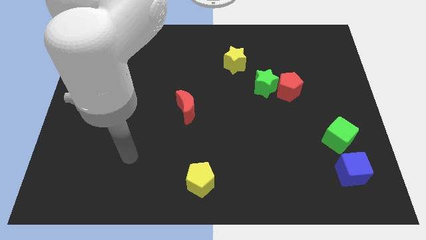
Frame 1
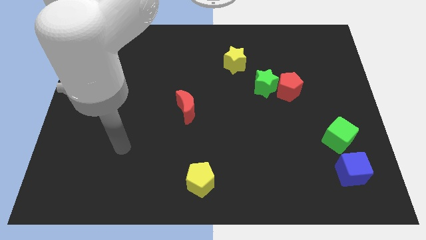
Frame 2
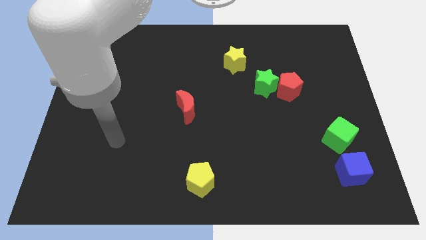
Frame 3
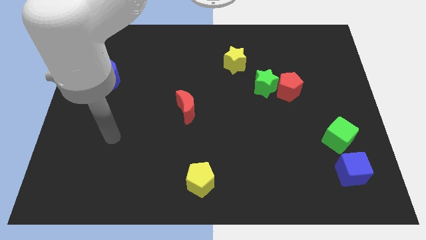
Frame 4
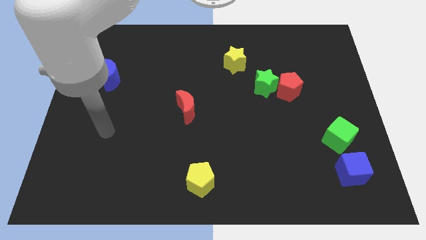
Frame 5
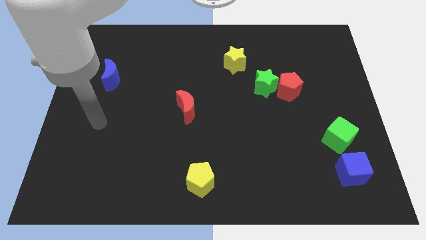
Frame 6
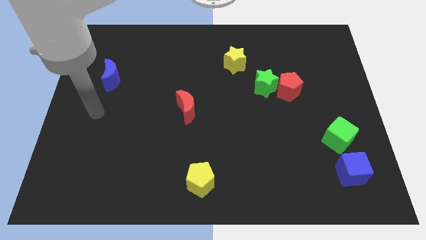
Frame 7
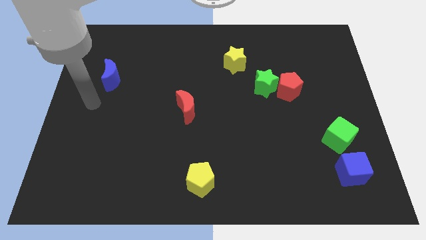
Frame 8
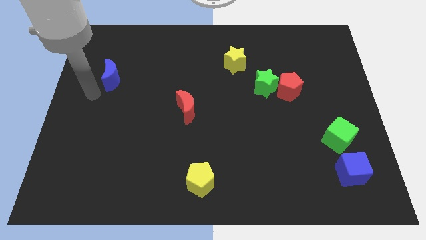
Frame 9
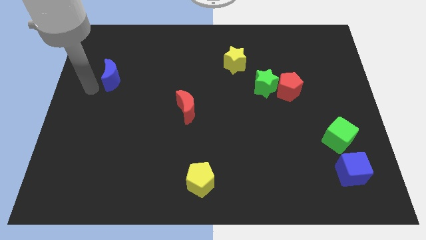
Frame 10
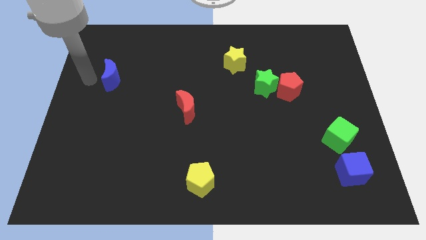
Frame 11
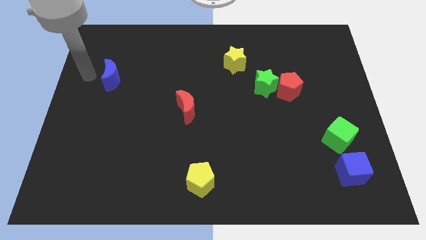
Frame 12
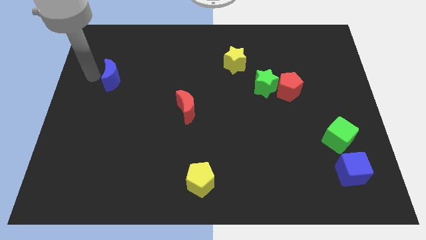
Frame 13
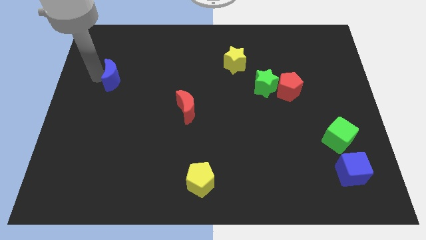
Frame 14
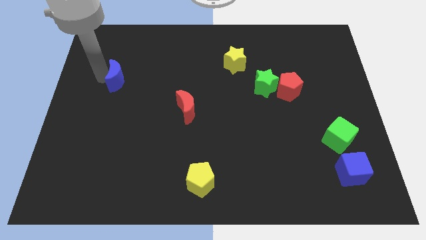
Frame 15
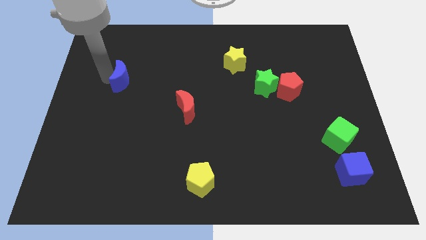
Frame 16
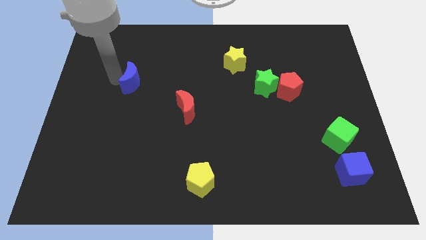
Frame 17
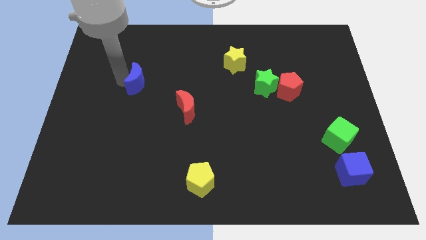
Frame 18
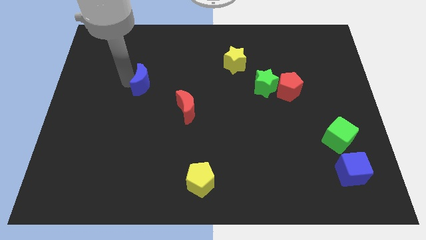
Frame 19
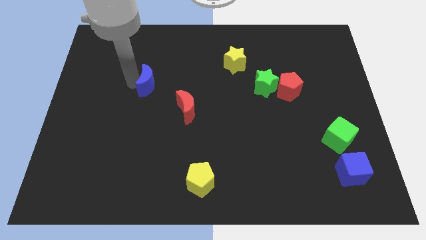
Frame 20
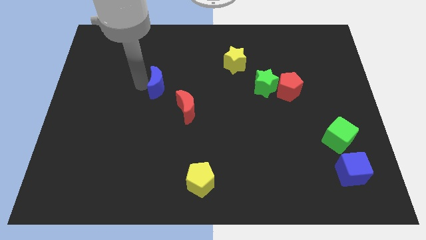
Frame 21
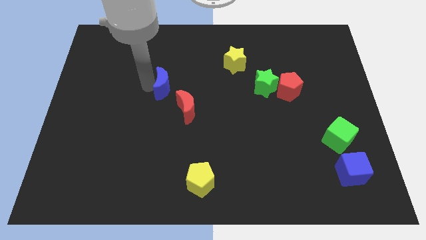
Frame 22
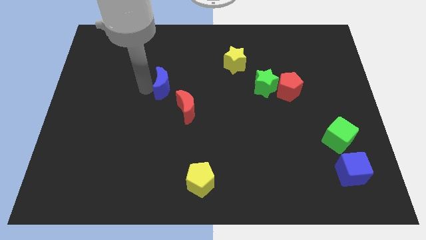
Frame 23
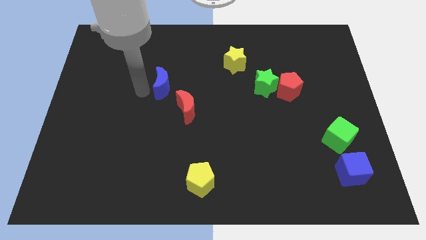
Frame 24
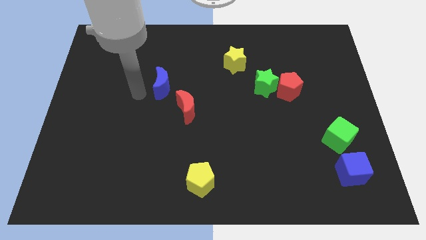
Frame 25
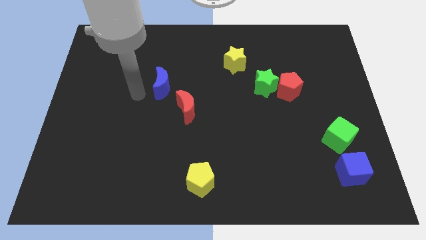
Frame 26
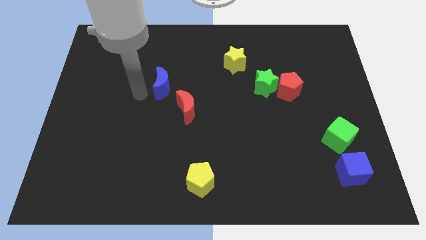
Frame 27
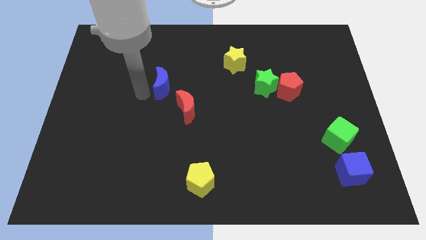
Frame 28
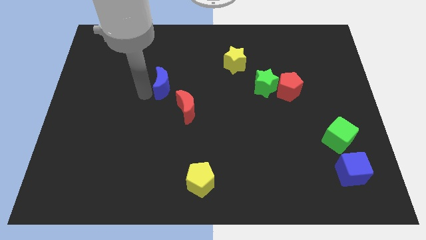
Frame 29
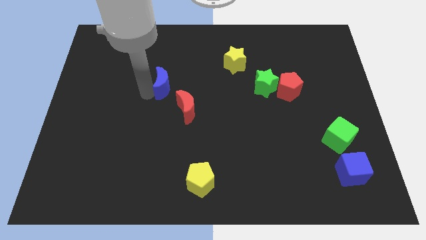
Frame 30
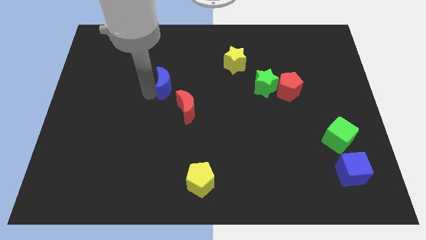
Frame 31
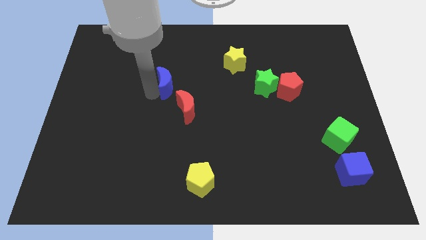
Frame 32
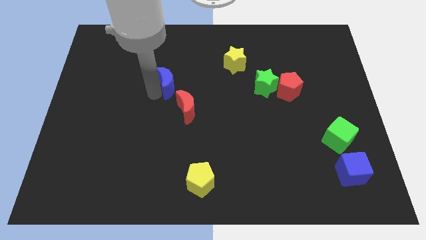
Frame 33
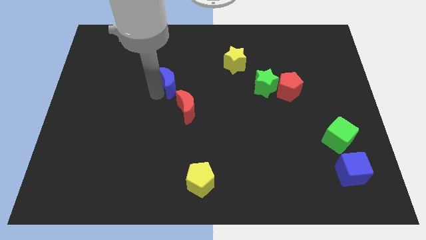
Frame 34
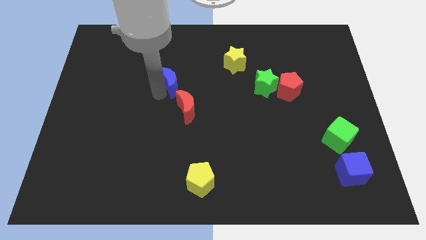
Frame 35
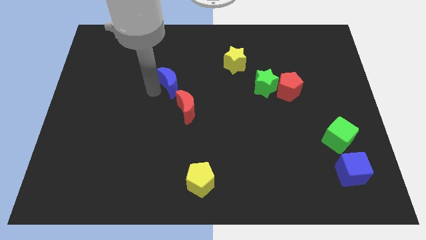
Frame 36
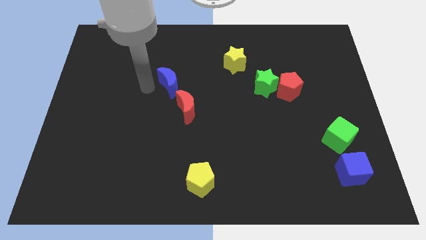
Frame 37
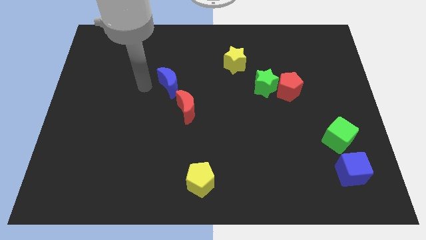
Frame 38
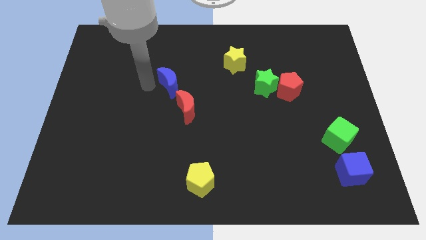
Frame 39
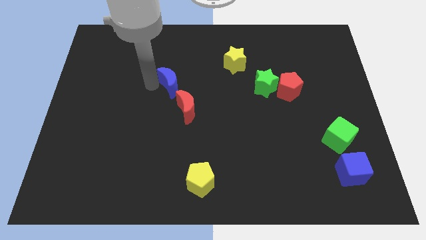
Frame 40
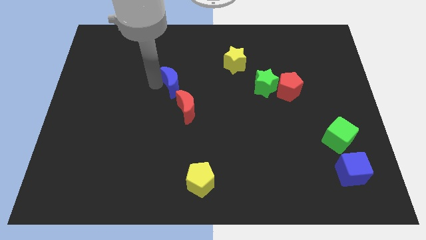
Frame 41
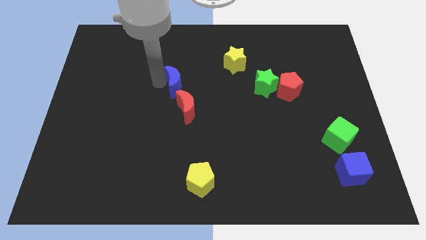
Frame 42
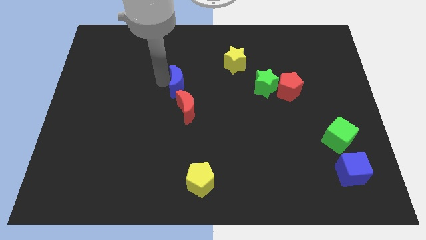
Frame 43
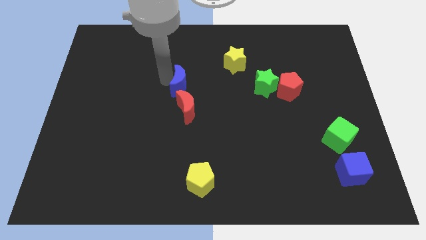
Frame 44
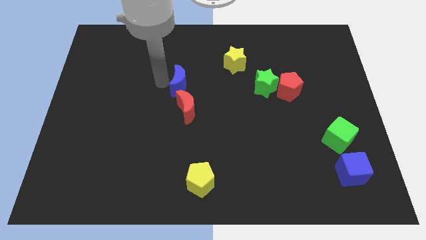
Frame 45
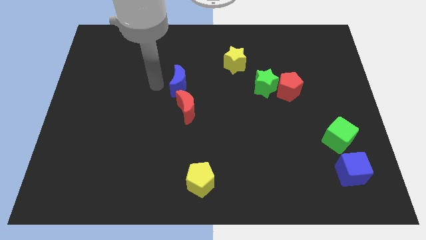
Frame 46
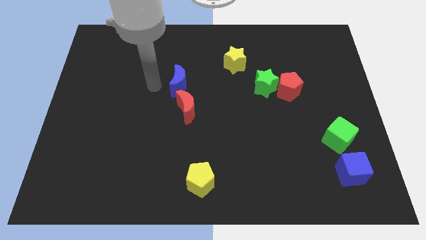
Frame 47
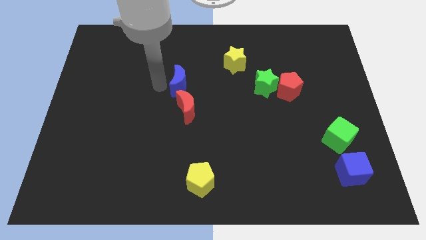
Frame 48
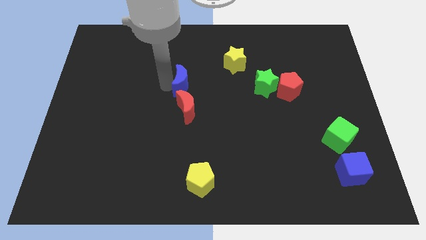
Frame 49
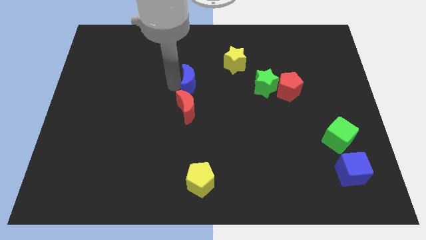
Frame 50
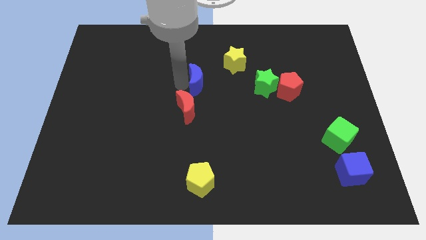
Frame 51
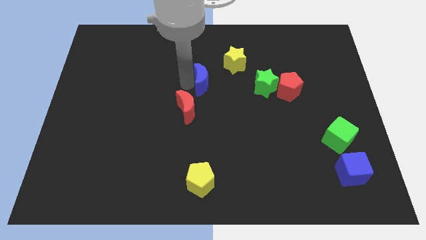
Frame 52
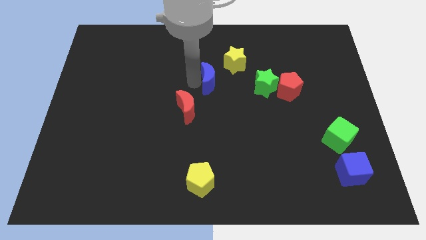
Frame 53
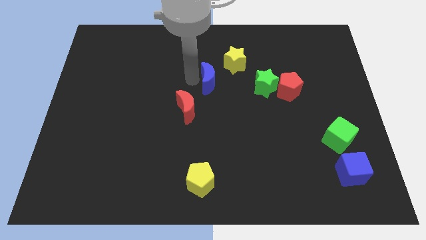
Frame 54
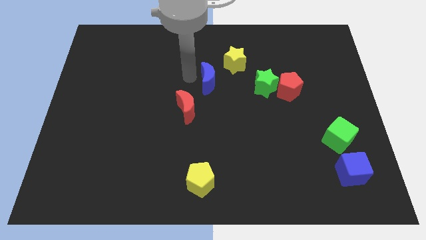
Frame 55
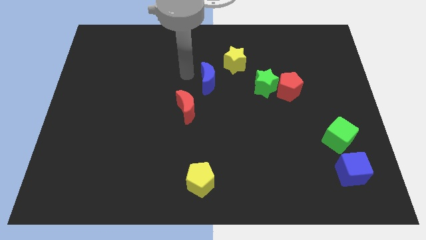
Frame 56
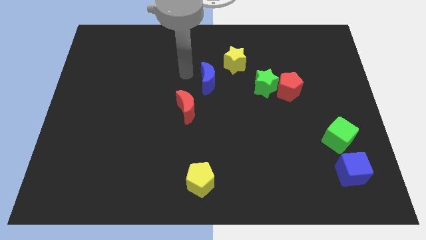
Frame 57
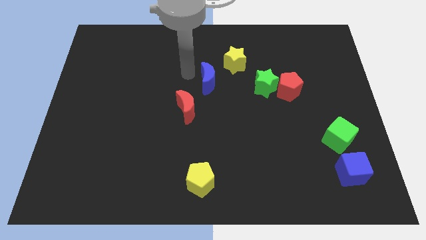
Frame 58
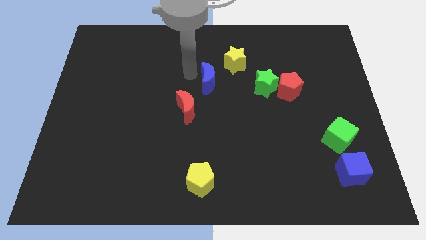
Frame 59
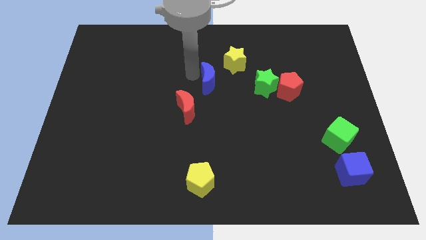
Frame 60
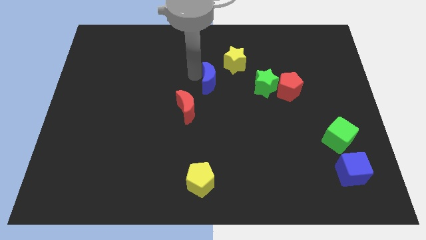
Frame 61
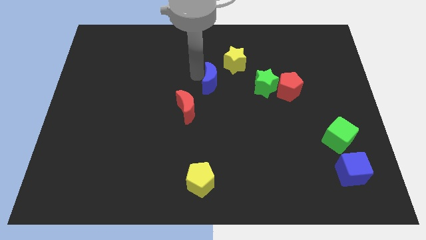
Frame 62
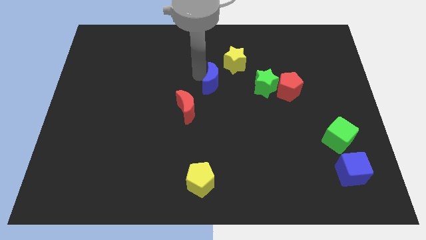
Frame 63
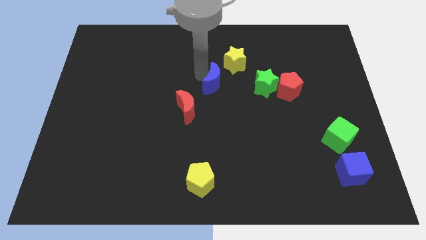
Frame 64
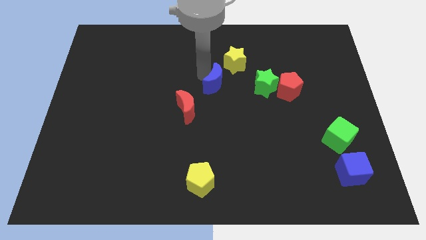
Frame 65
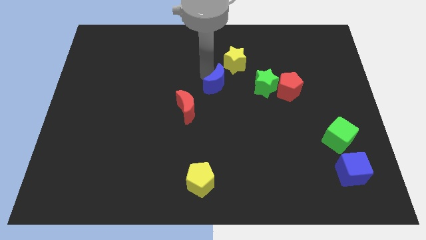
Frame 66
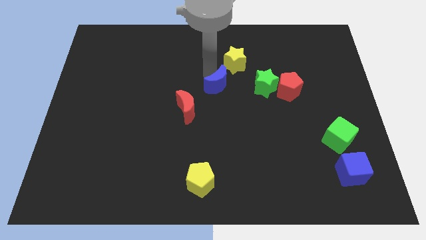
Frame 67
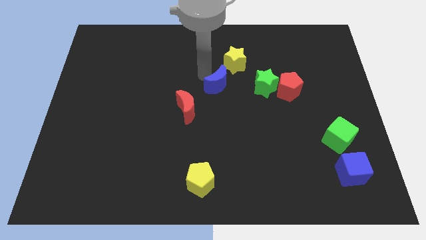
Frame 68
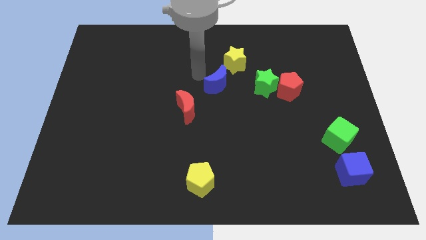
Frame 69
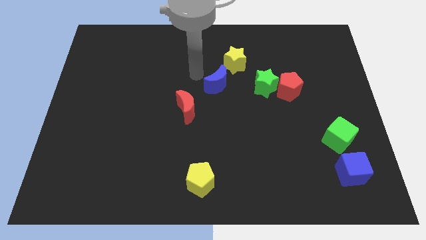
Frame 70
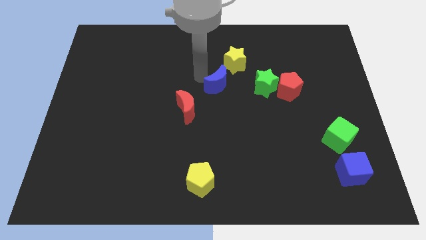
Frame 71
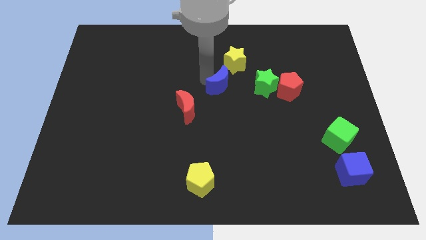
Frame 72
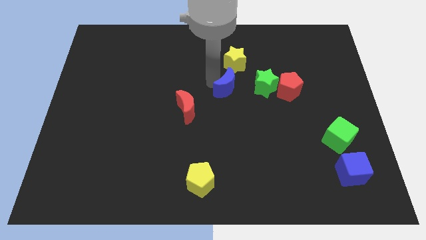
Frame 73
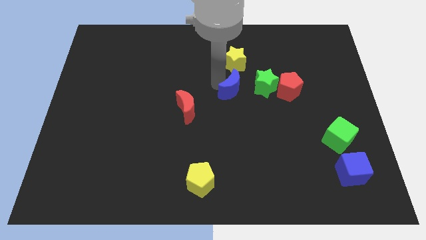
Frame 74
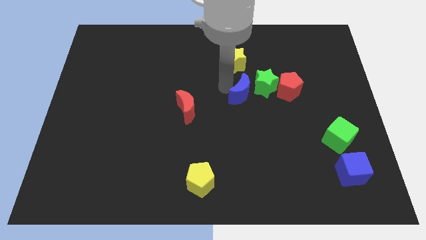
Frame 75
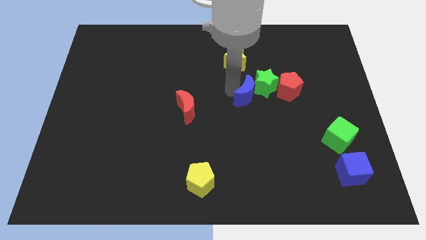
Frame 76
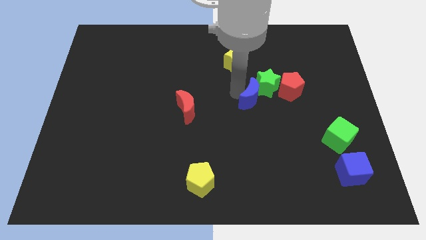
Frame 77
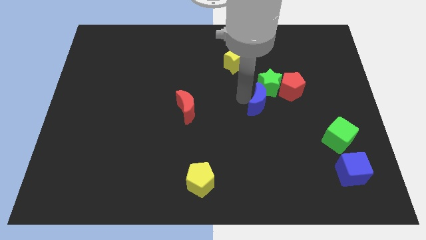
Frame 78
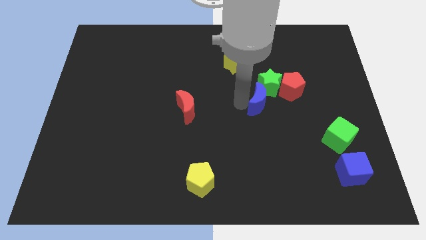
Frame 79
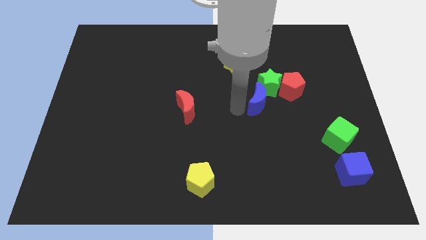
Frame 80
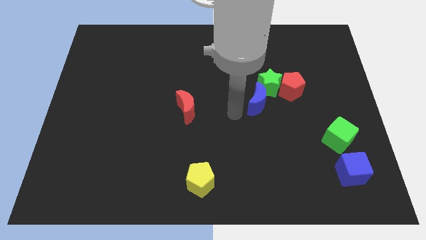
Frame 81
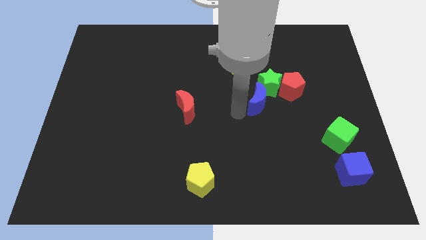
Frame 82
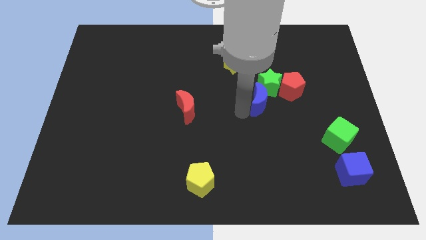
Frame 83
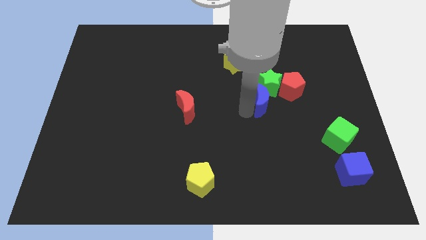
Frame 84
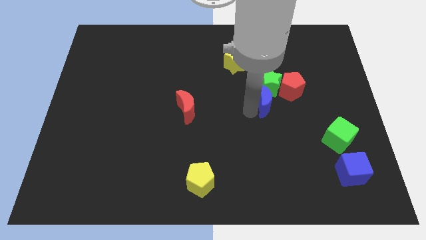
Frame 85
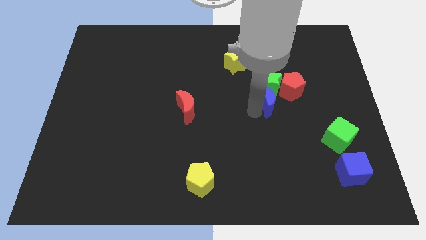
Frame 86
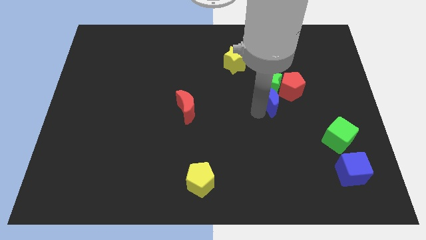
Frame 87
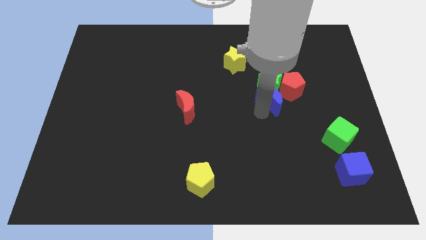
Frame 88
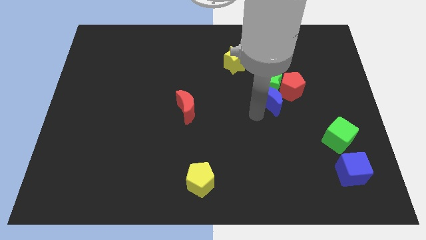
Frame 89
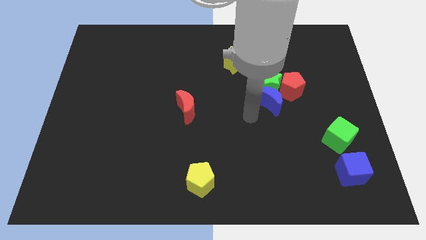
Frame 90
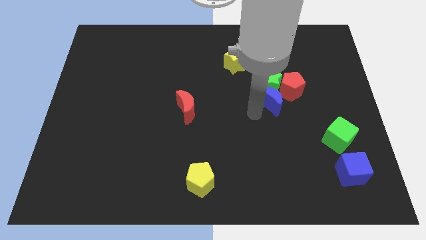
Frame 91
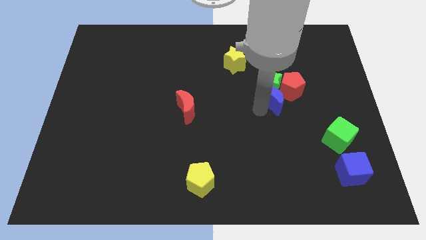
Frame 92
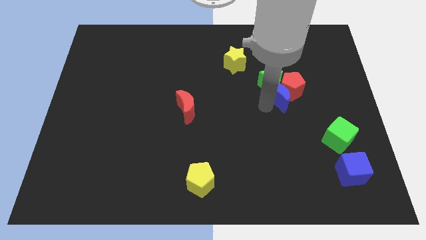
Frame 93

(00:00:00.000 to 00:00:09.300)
put the blue moon next to the red pentagon
